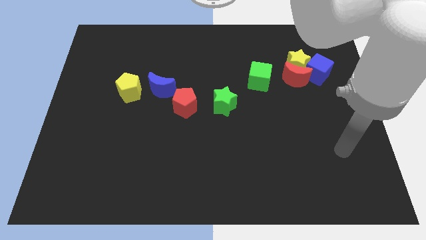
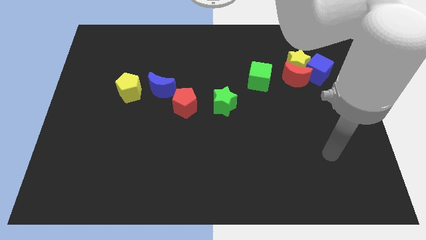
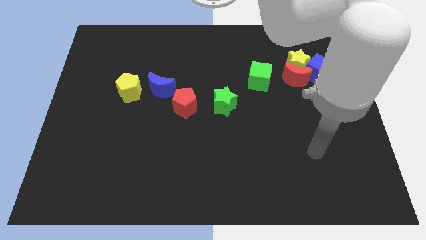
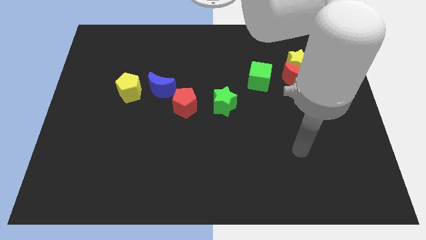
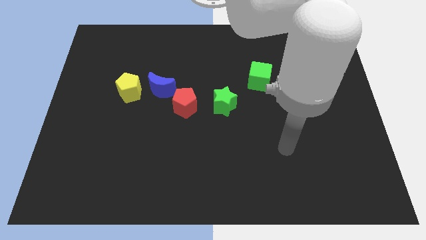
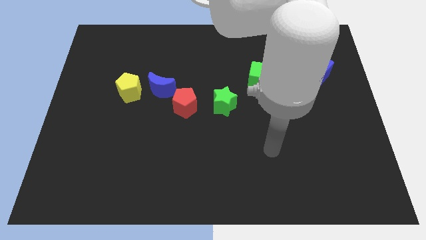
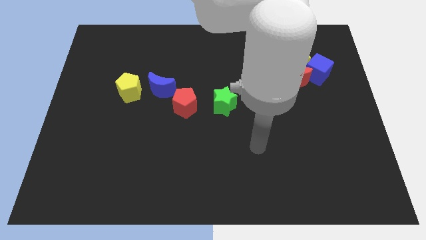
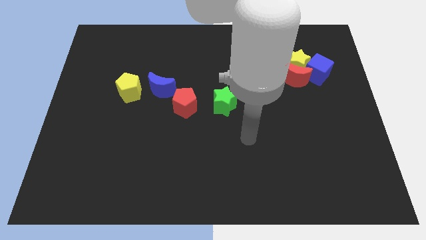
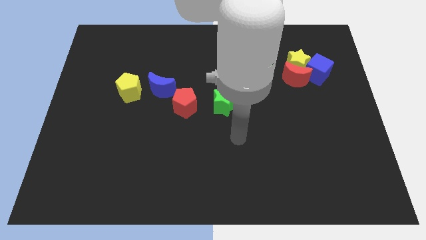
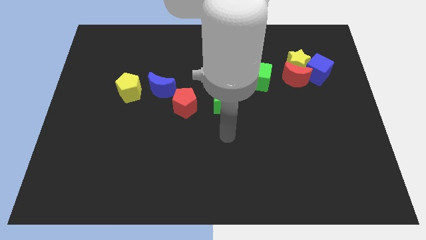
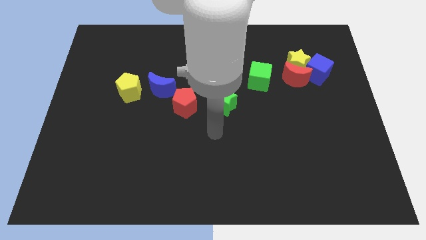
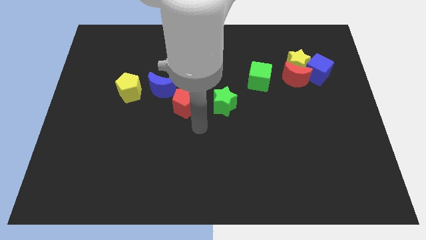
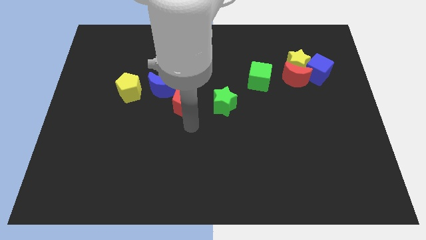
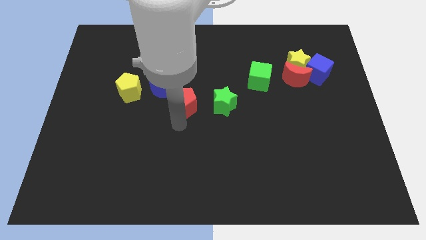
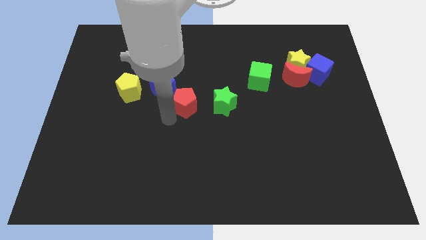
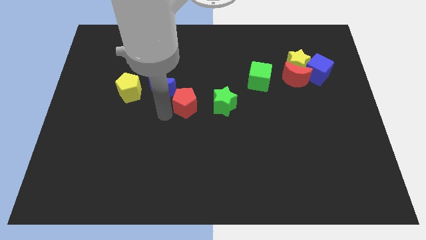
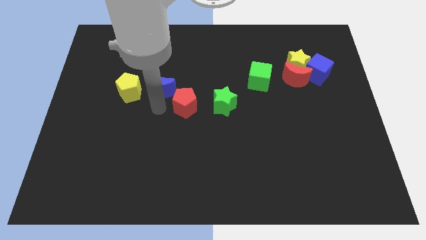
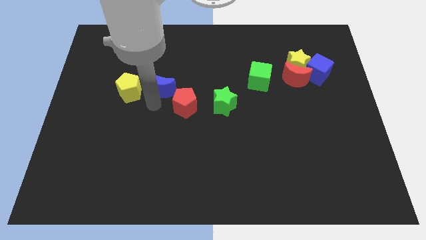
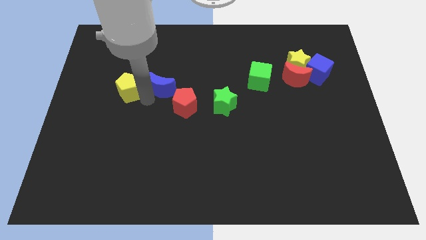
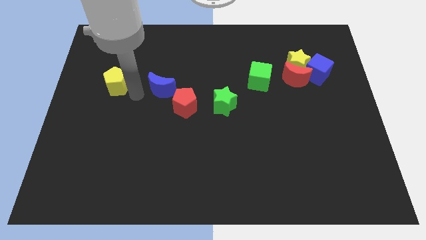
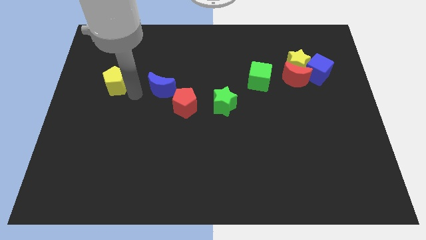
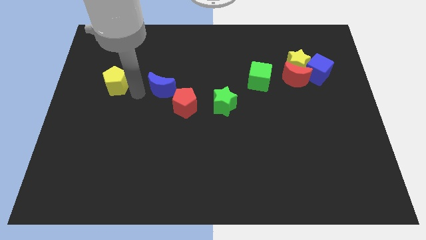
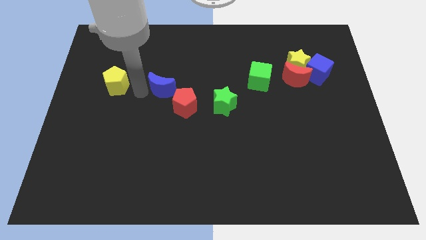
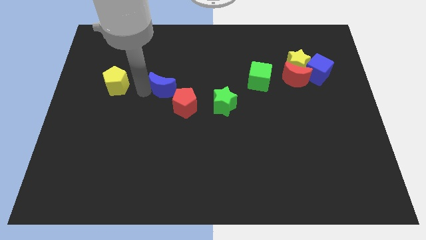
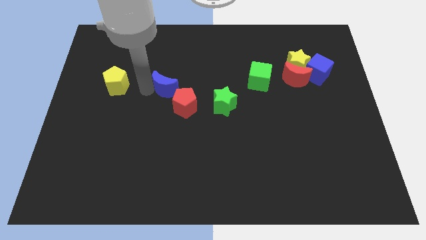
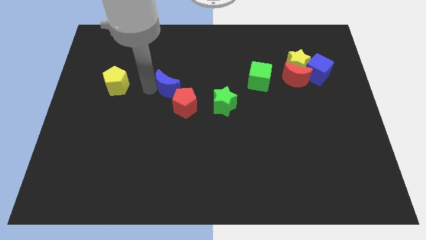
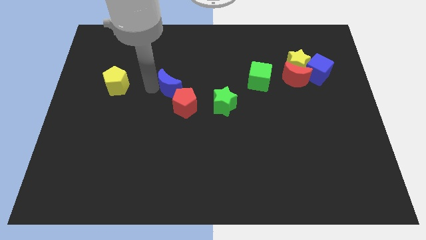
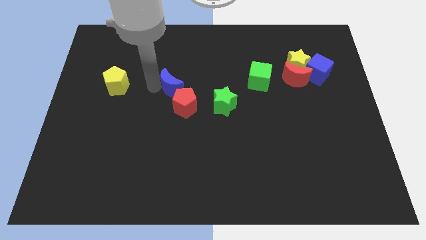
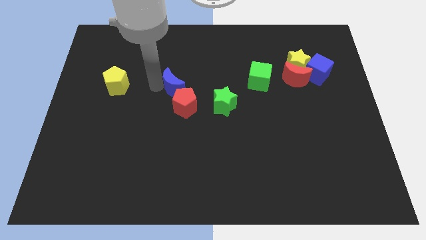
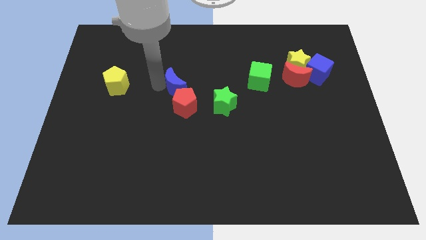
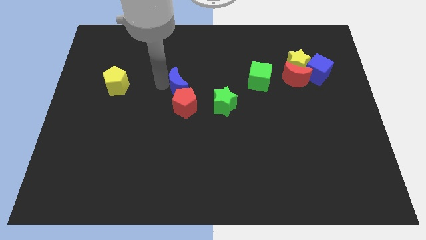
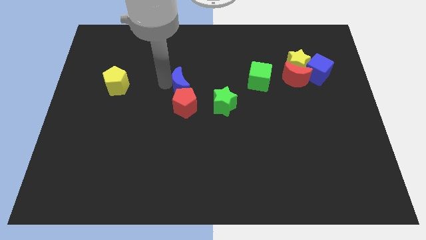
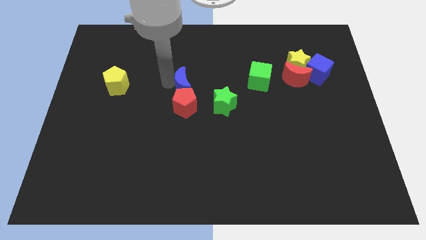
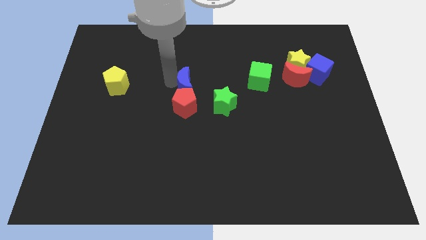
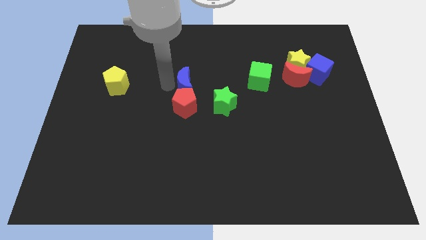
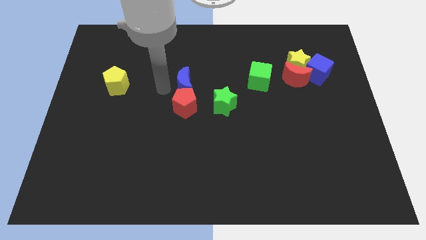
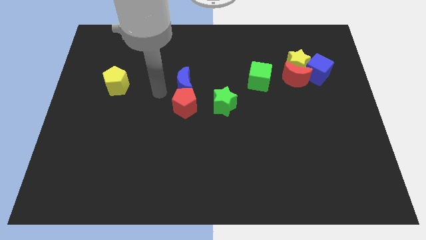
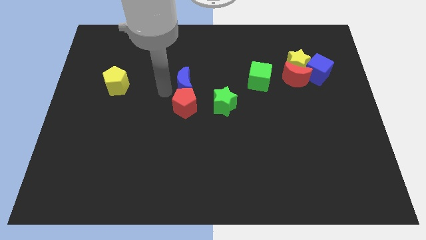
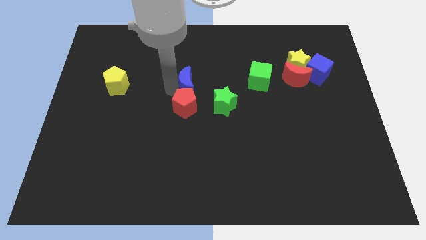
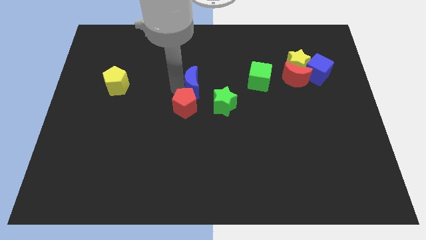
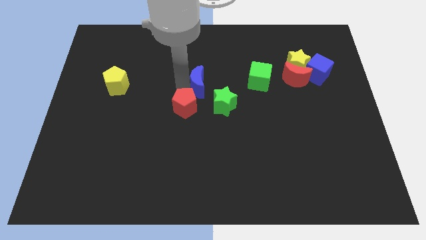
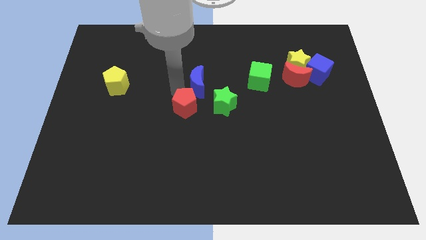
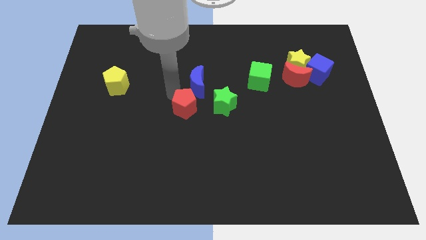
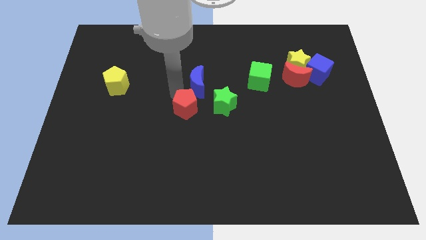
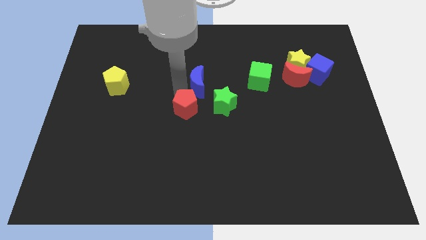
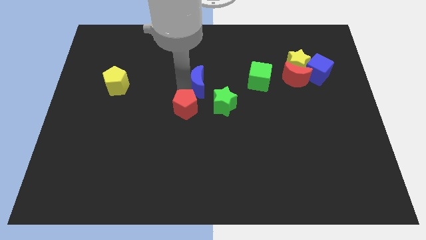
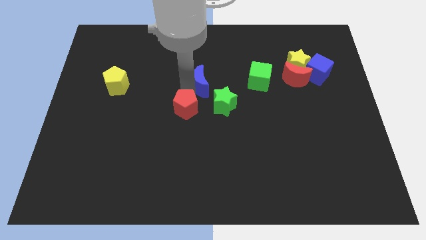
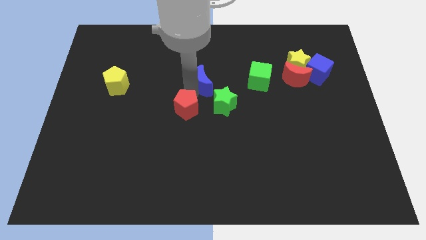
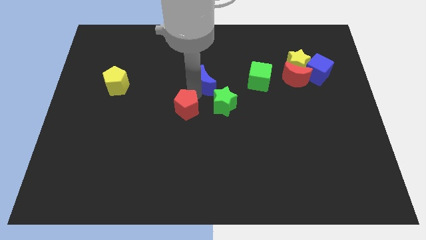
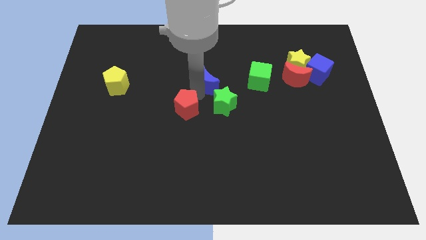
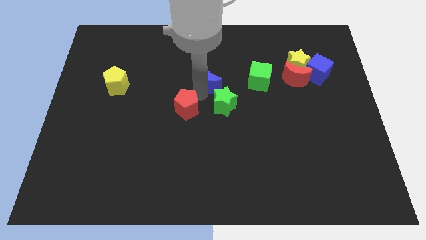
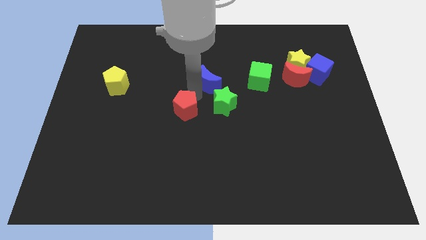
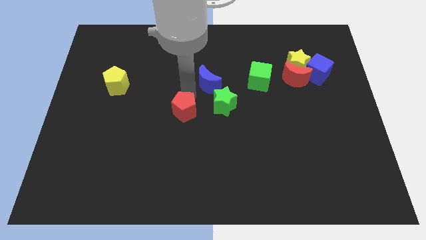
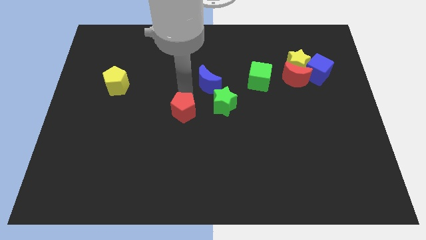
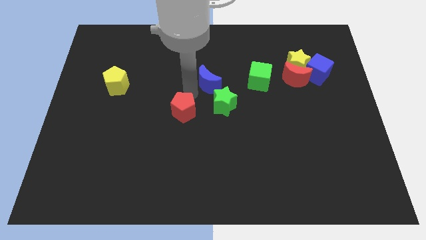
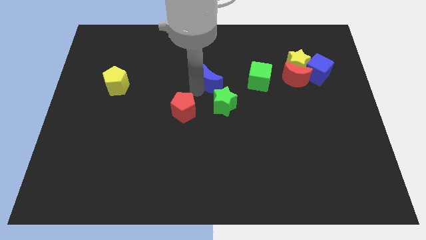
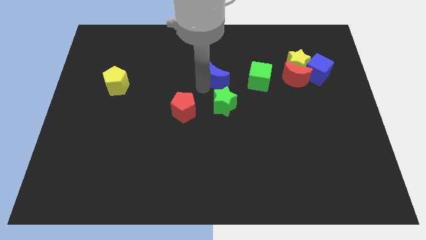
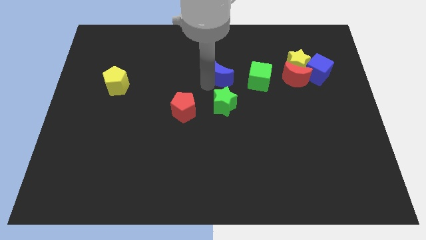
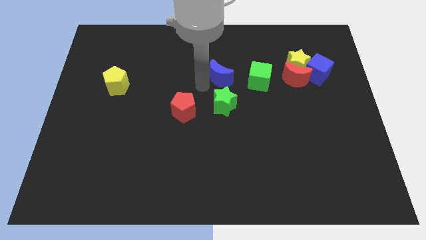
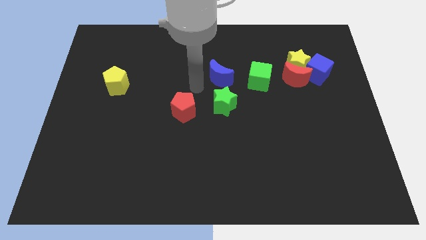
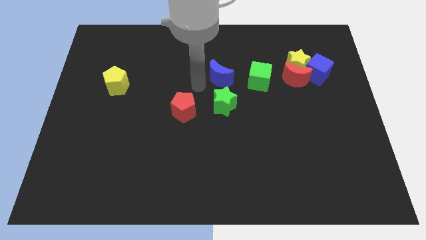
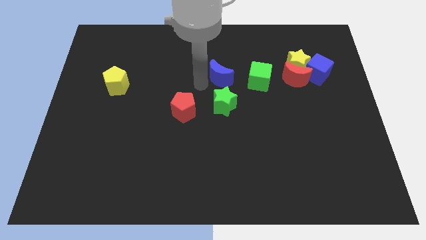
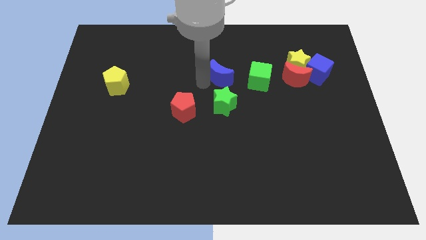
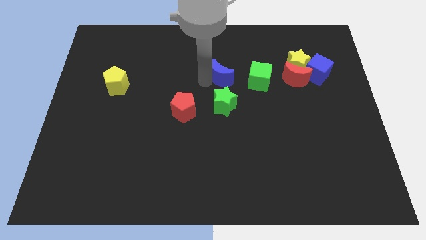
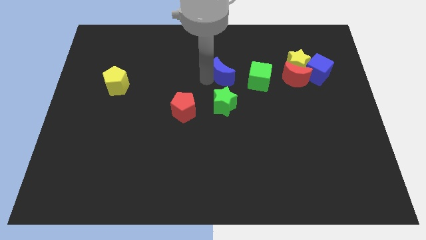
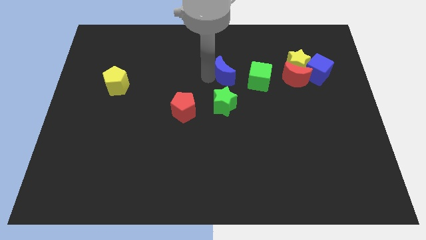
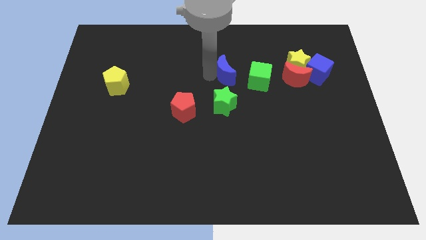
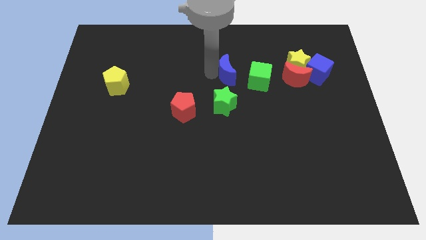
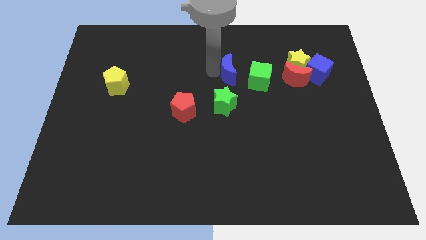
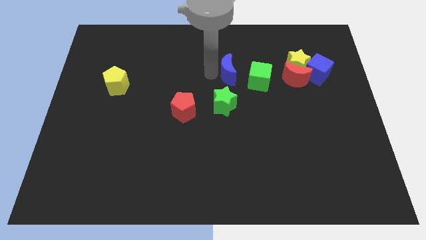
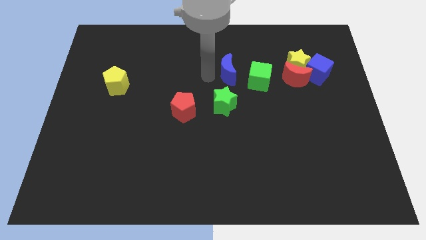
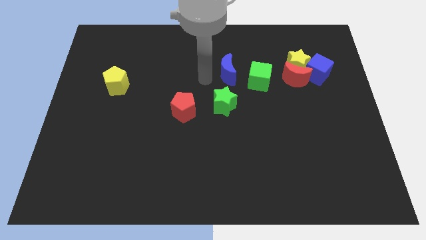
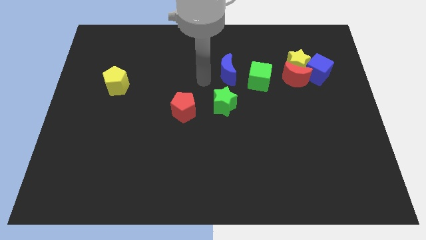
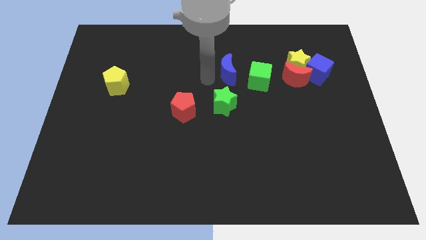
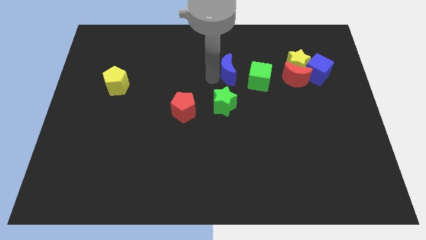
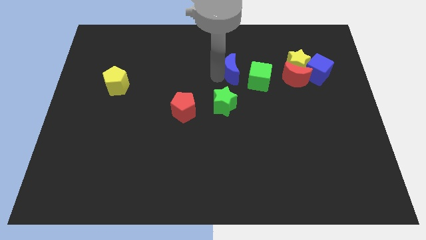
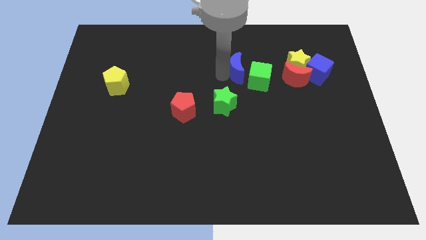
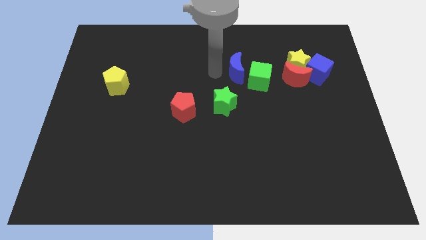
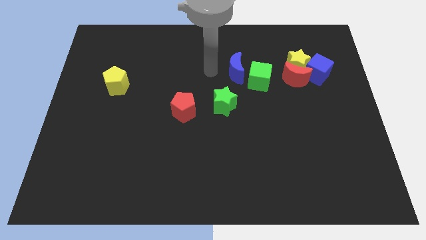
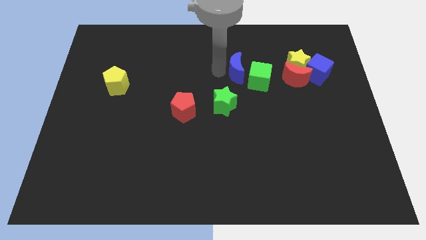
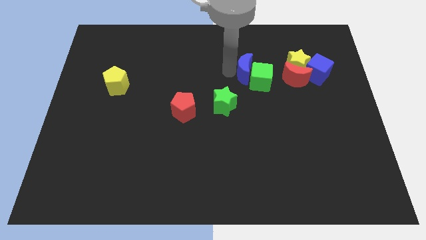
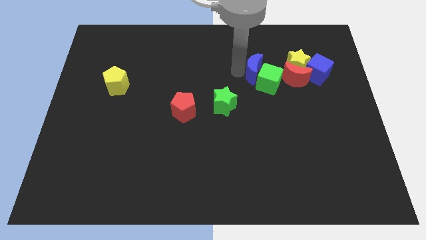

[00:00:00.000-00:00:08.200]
slide the blue moon just left of the blue cube
